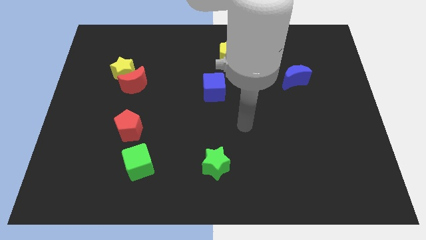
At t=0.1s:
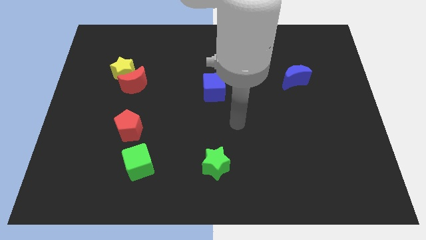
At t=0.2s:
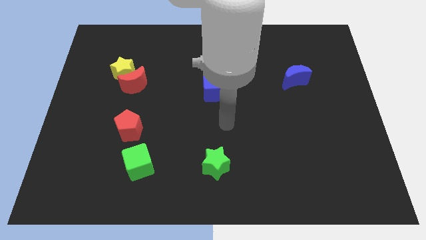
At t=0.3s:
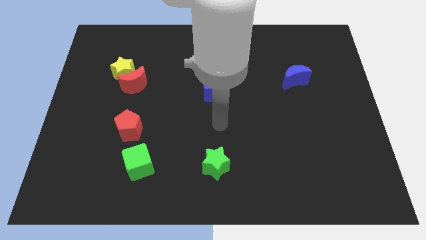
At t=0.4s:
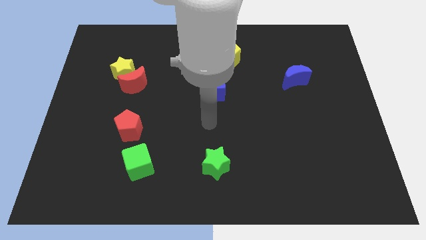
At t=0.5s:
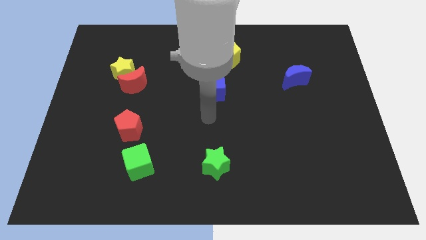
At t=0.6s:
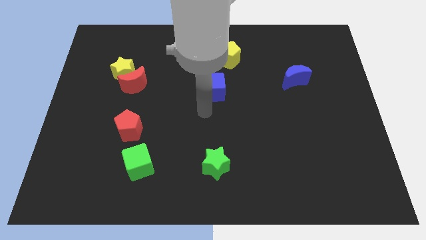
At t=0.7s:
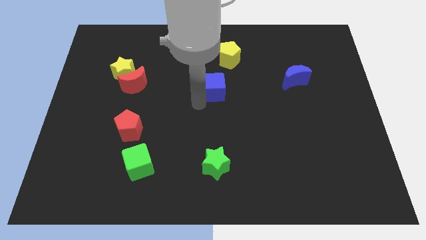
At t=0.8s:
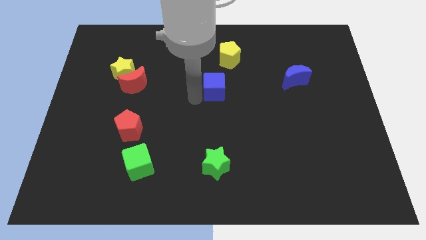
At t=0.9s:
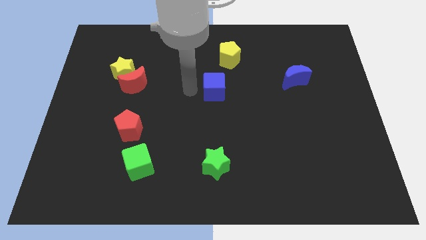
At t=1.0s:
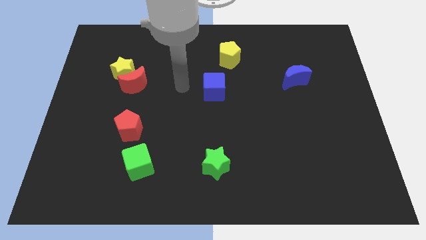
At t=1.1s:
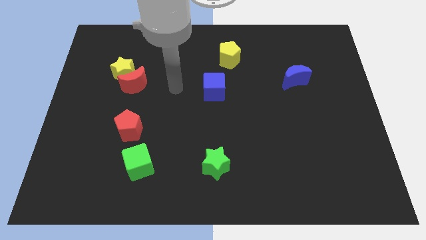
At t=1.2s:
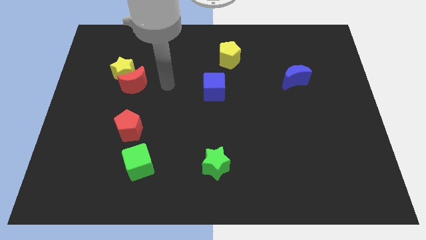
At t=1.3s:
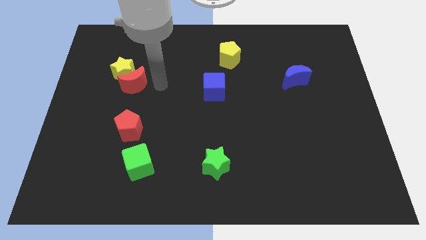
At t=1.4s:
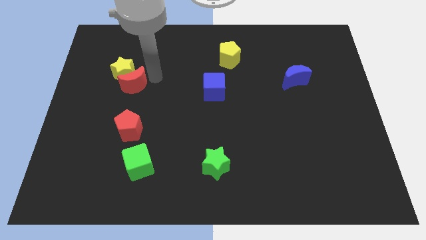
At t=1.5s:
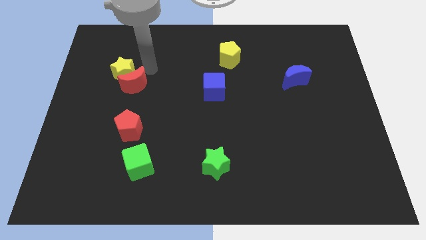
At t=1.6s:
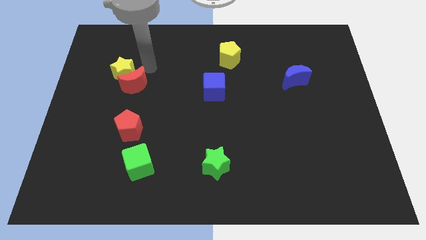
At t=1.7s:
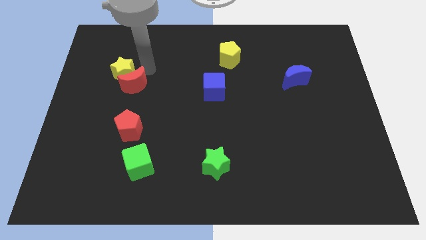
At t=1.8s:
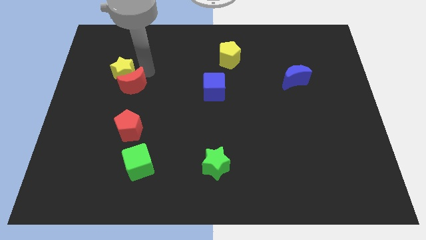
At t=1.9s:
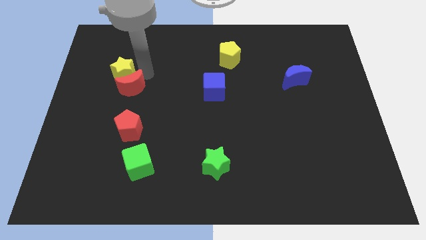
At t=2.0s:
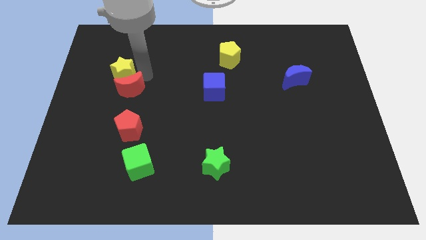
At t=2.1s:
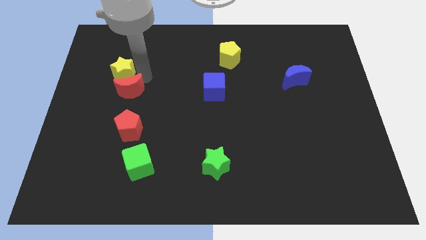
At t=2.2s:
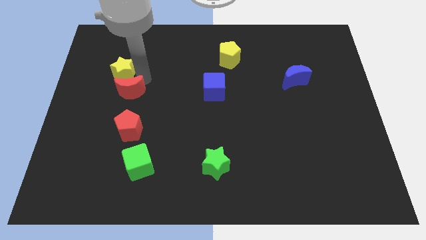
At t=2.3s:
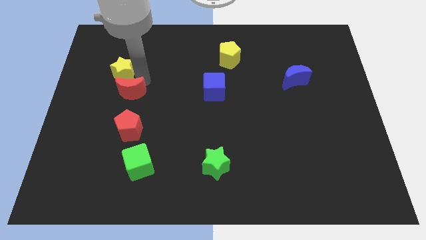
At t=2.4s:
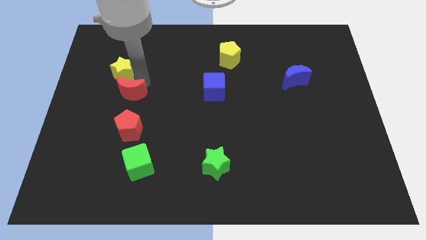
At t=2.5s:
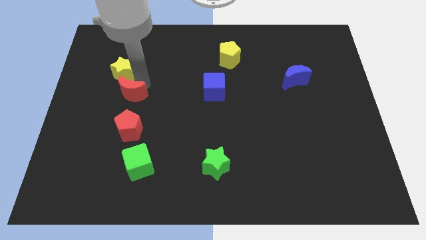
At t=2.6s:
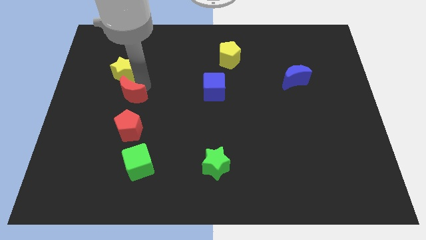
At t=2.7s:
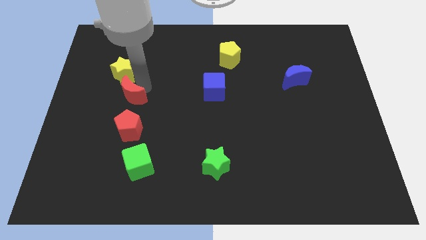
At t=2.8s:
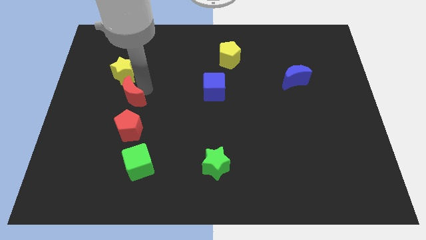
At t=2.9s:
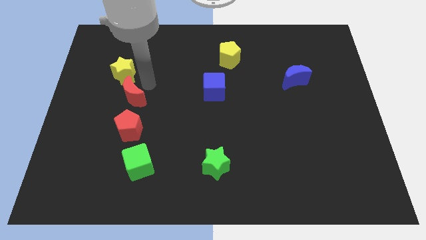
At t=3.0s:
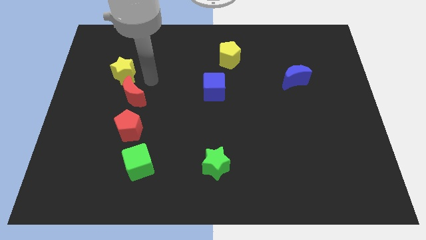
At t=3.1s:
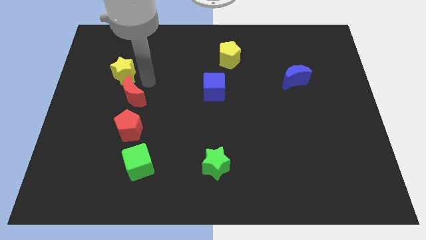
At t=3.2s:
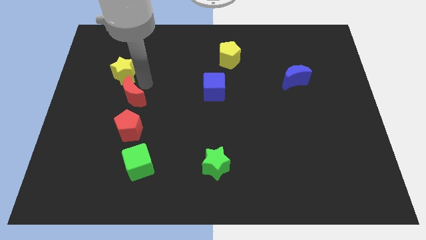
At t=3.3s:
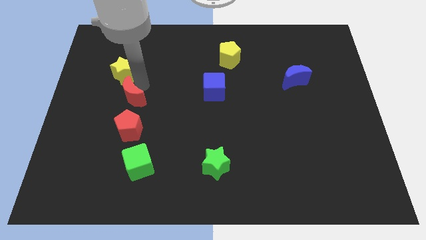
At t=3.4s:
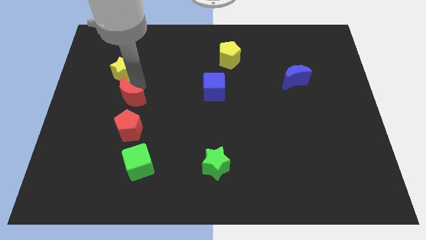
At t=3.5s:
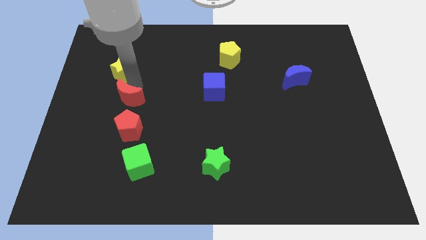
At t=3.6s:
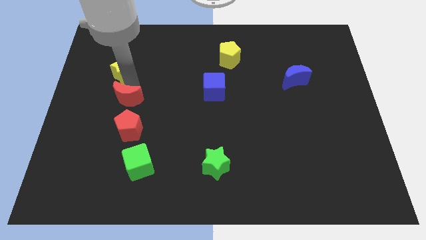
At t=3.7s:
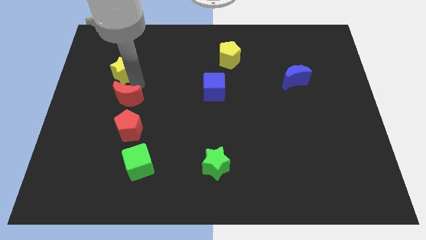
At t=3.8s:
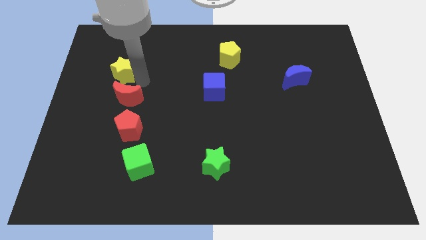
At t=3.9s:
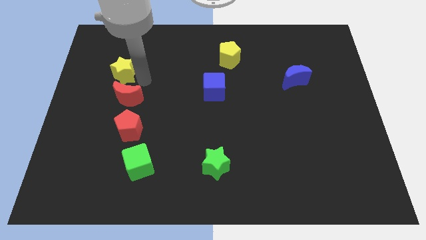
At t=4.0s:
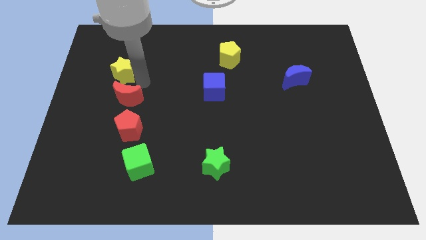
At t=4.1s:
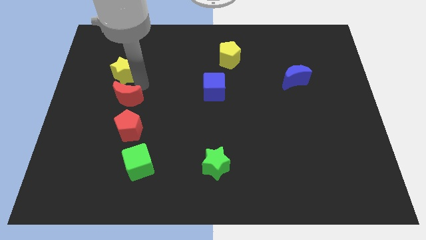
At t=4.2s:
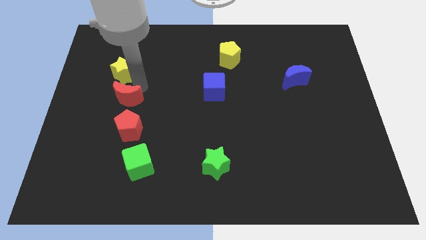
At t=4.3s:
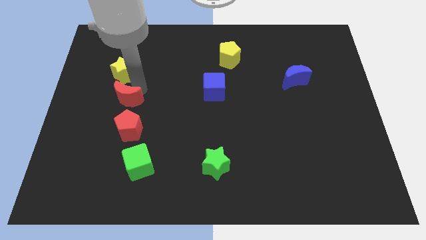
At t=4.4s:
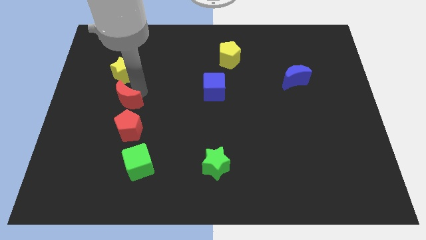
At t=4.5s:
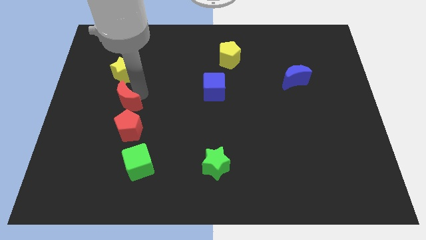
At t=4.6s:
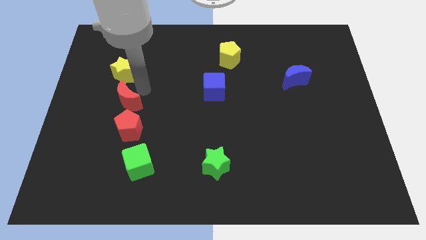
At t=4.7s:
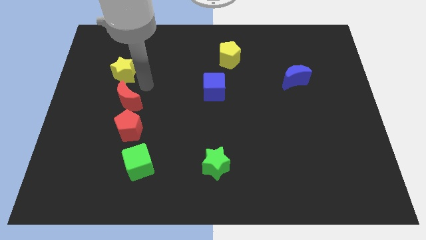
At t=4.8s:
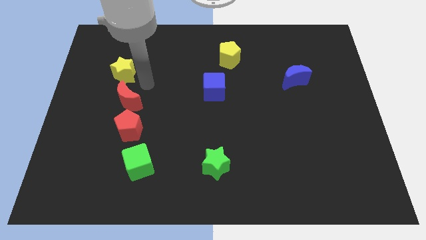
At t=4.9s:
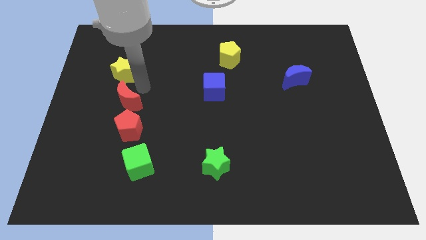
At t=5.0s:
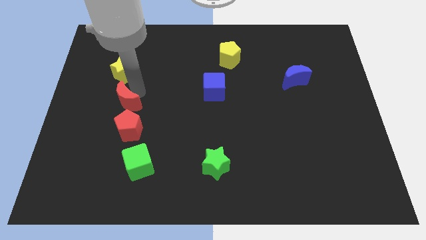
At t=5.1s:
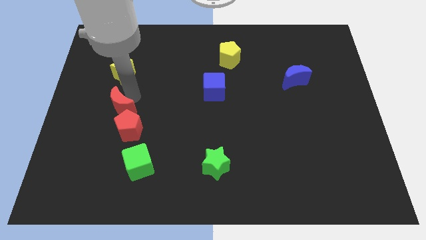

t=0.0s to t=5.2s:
slightly move the red moon down

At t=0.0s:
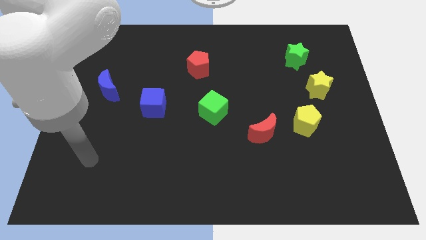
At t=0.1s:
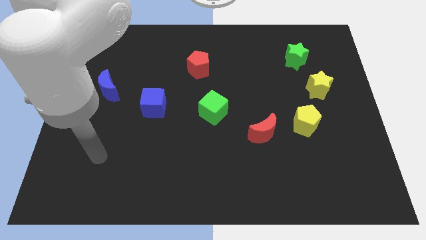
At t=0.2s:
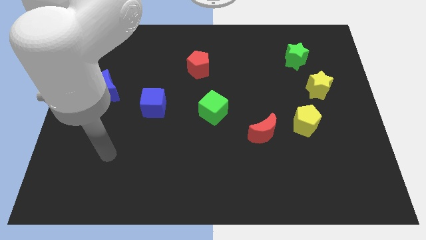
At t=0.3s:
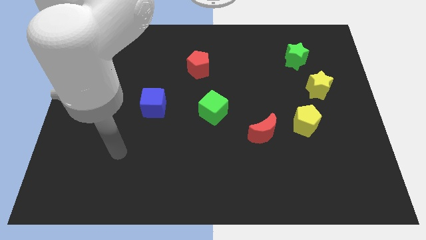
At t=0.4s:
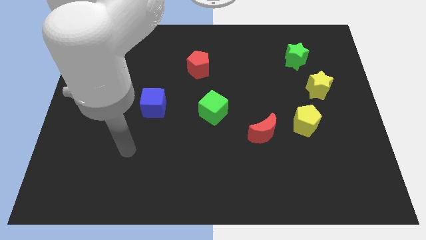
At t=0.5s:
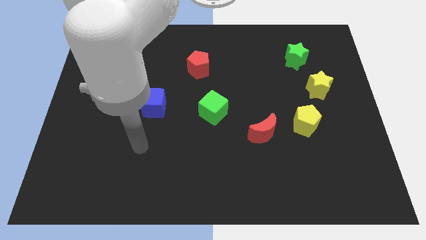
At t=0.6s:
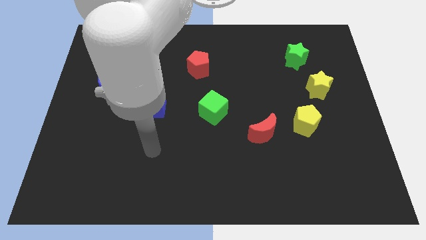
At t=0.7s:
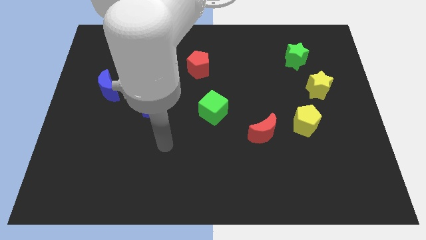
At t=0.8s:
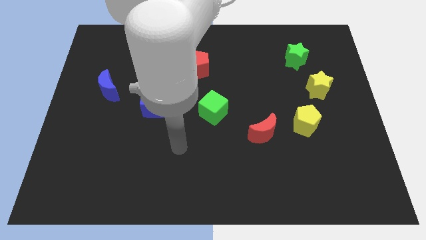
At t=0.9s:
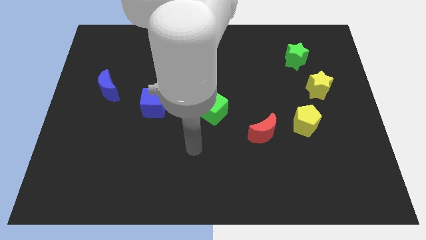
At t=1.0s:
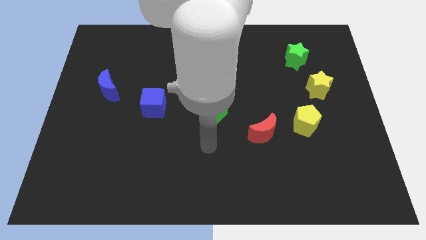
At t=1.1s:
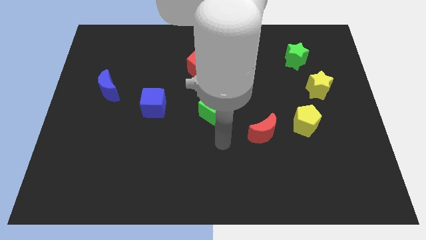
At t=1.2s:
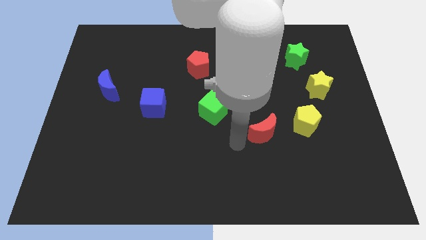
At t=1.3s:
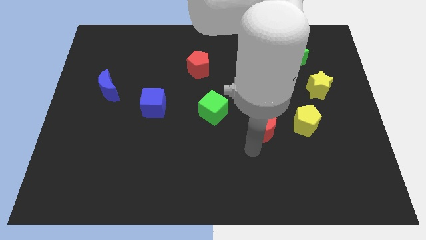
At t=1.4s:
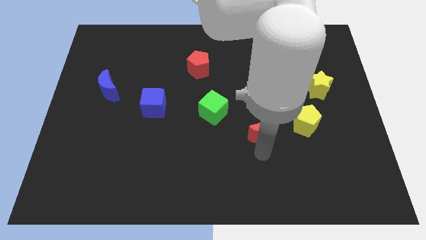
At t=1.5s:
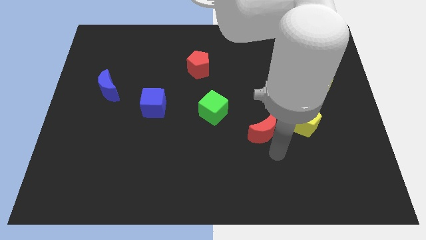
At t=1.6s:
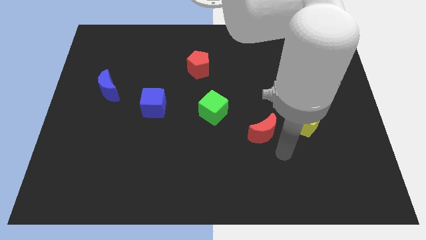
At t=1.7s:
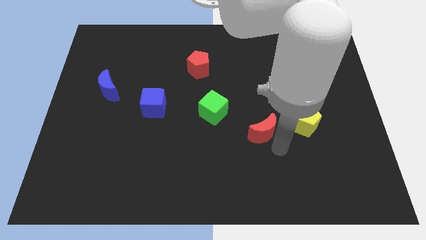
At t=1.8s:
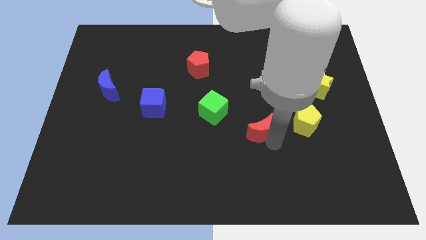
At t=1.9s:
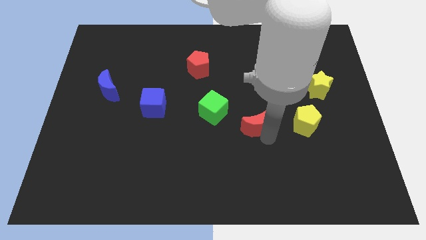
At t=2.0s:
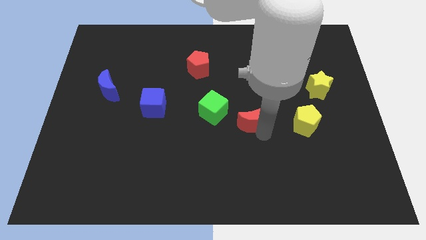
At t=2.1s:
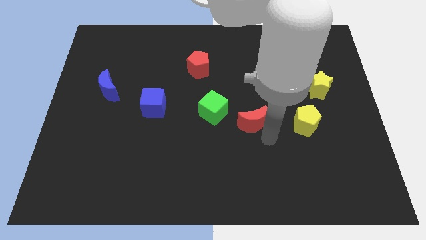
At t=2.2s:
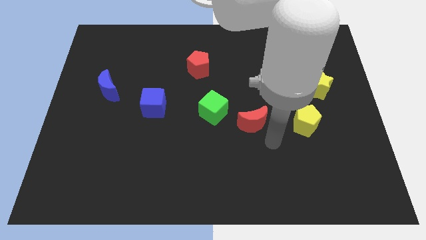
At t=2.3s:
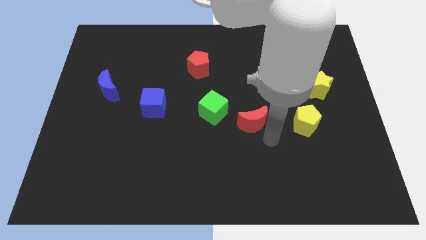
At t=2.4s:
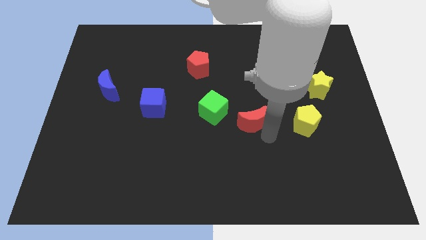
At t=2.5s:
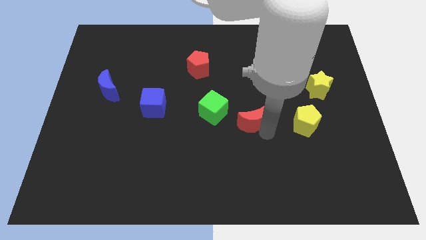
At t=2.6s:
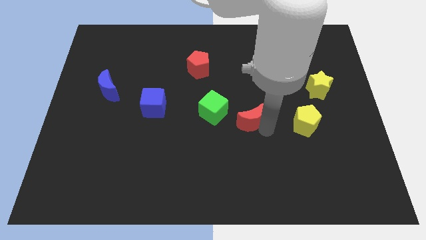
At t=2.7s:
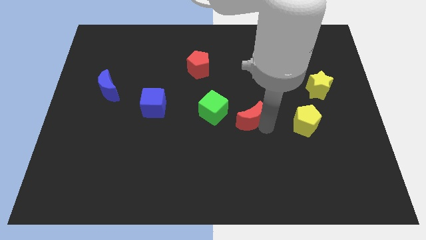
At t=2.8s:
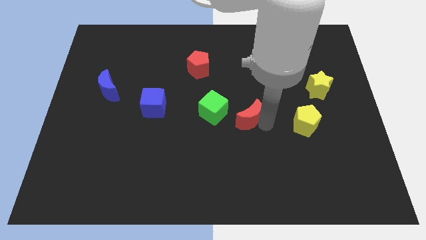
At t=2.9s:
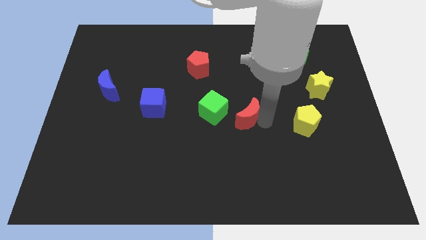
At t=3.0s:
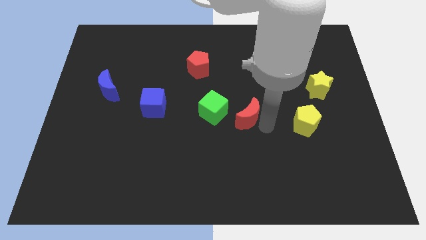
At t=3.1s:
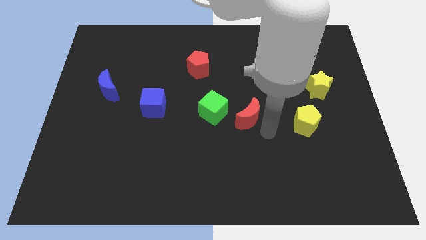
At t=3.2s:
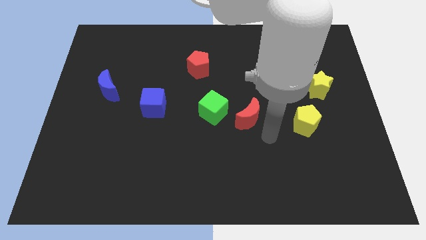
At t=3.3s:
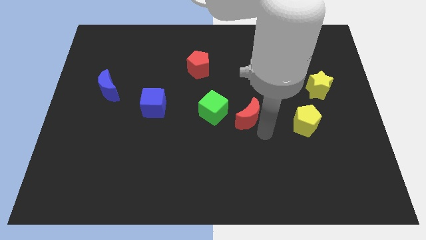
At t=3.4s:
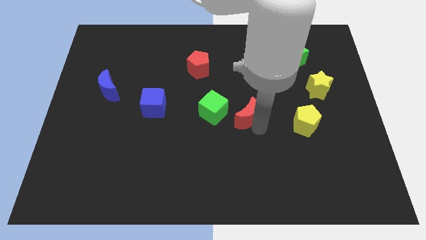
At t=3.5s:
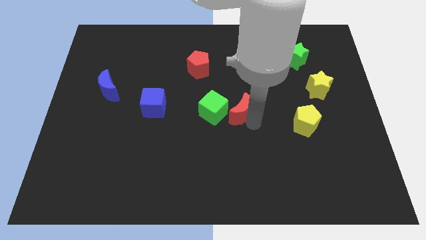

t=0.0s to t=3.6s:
push the red moon diagonally up and left somewhat
